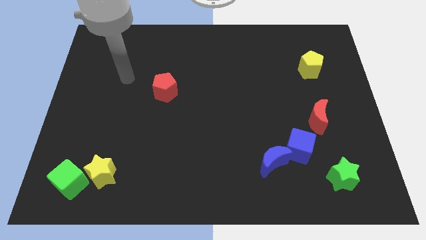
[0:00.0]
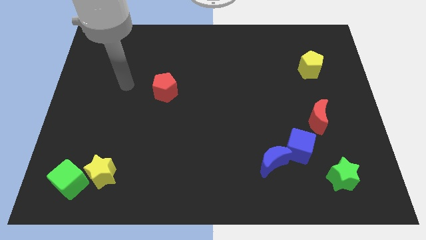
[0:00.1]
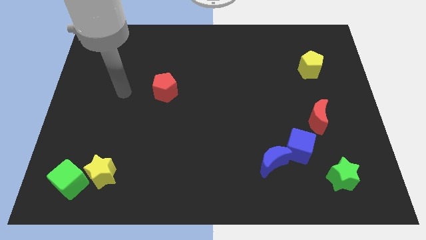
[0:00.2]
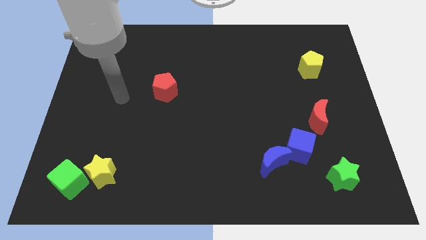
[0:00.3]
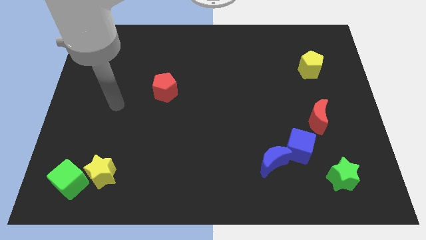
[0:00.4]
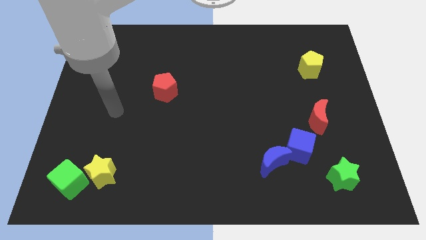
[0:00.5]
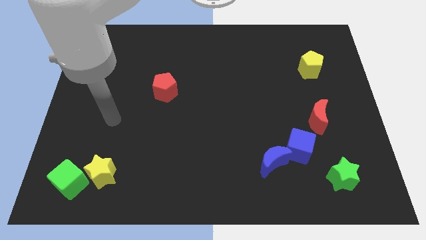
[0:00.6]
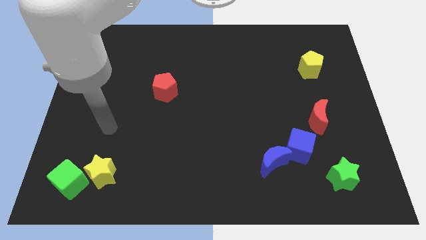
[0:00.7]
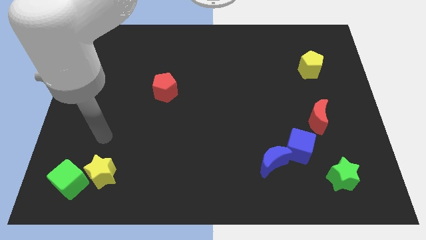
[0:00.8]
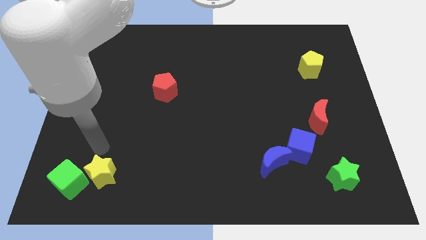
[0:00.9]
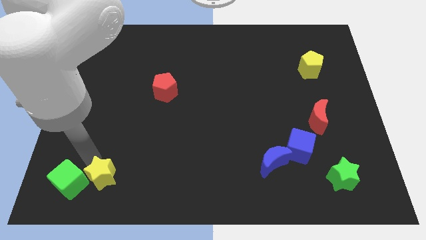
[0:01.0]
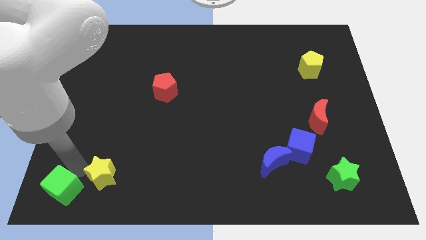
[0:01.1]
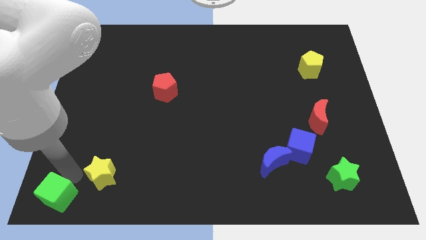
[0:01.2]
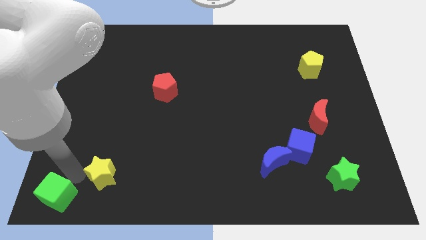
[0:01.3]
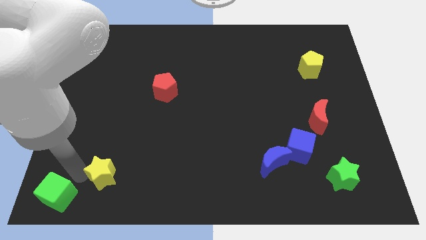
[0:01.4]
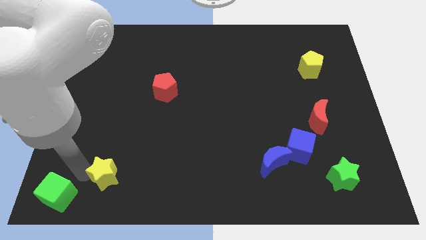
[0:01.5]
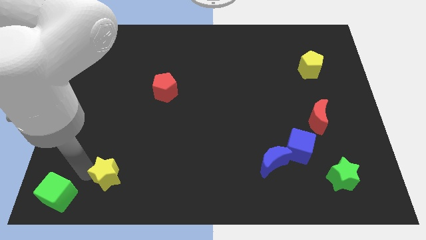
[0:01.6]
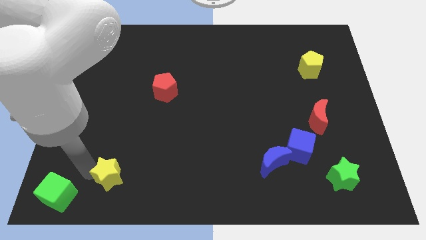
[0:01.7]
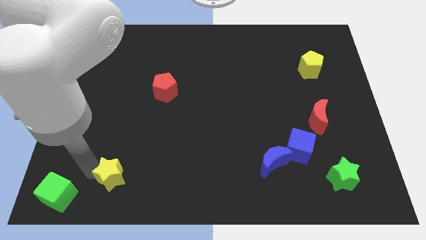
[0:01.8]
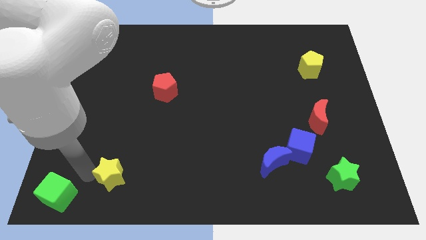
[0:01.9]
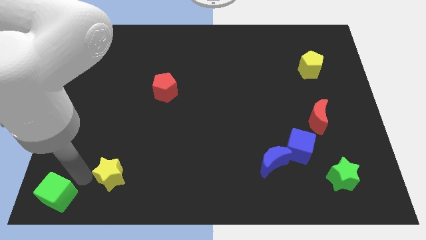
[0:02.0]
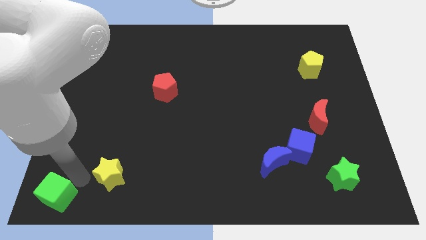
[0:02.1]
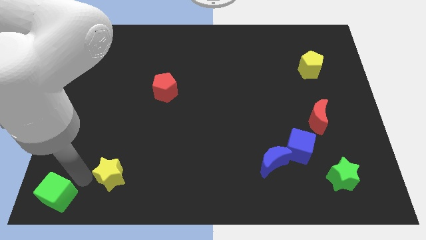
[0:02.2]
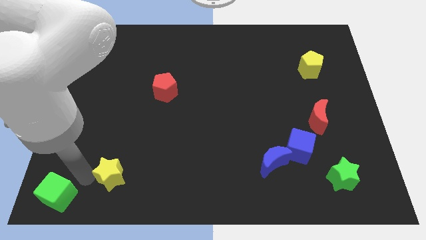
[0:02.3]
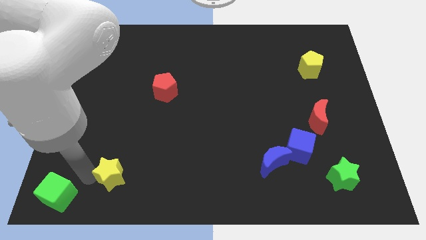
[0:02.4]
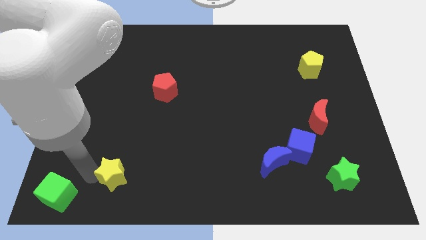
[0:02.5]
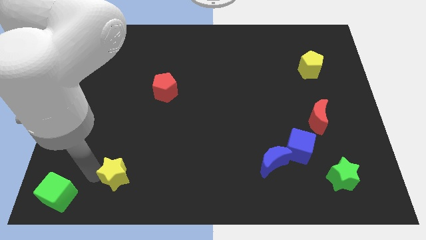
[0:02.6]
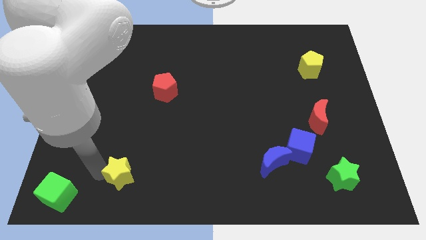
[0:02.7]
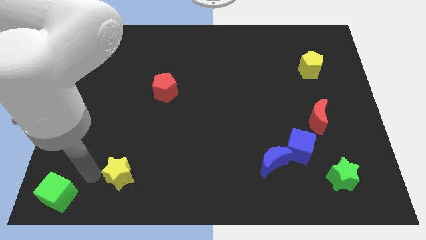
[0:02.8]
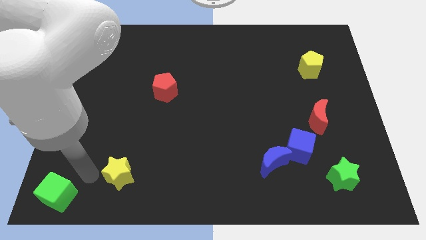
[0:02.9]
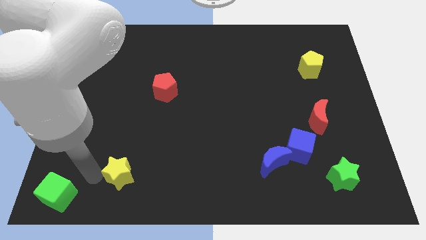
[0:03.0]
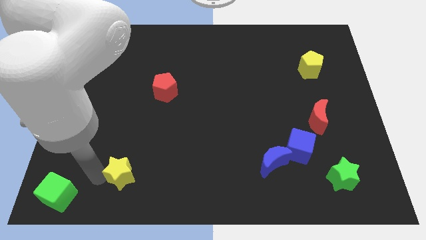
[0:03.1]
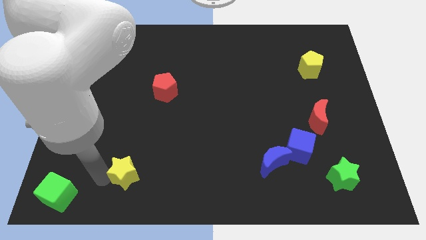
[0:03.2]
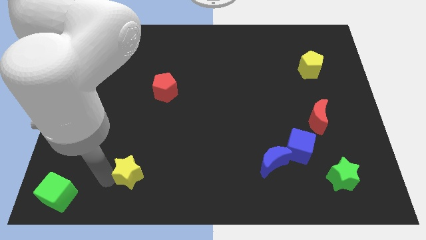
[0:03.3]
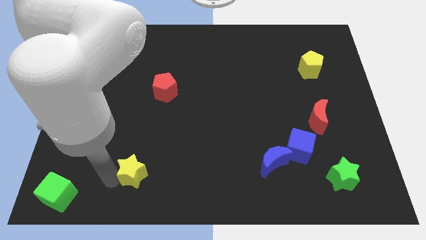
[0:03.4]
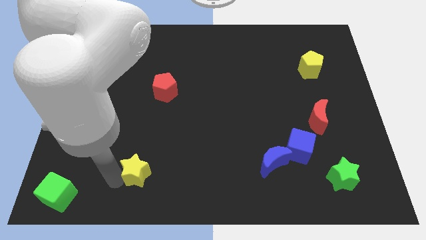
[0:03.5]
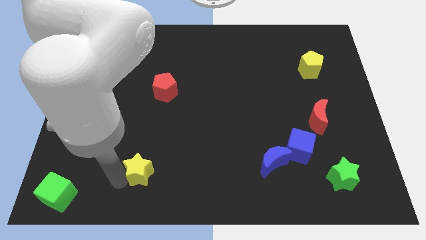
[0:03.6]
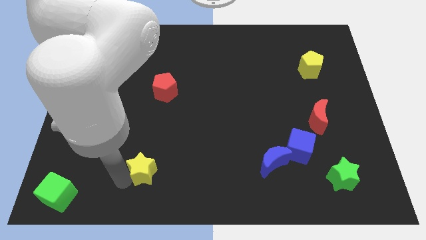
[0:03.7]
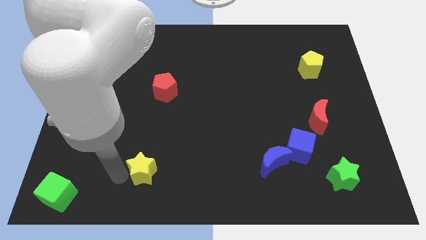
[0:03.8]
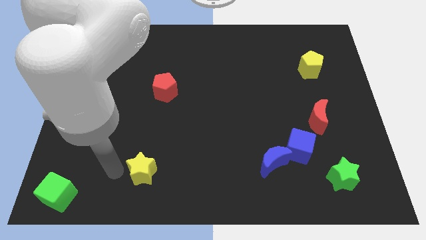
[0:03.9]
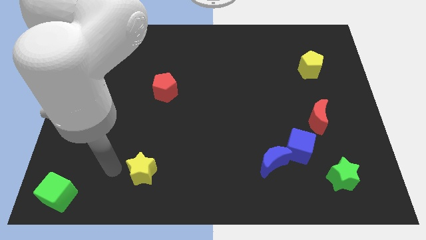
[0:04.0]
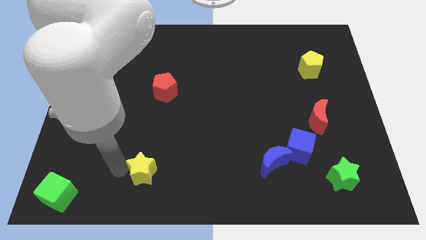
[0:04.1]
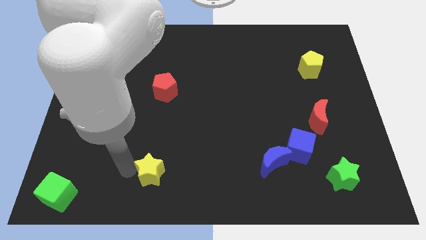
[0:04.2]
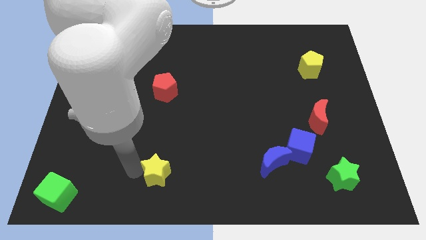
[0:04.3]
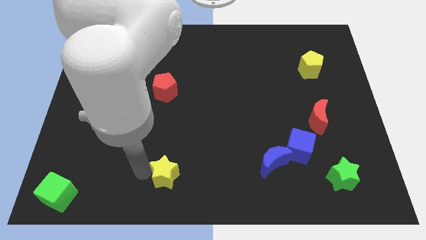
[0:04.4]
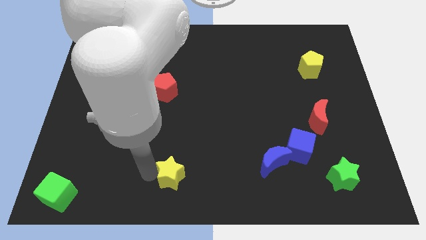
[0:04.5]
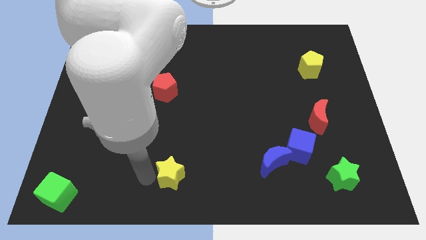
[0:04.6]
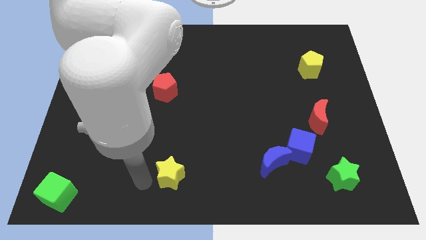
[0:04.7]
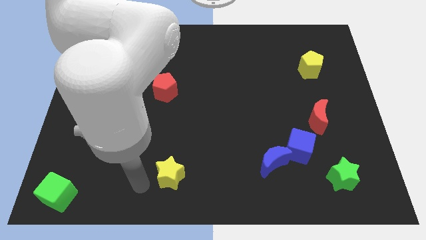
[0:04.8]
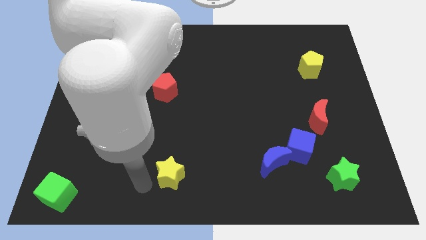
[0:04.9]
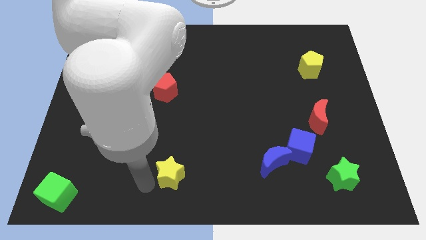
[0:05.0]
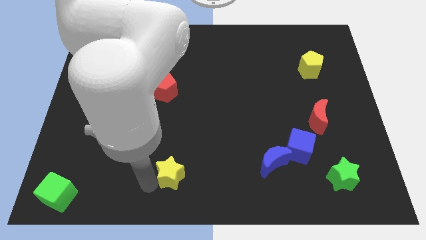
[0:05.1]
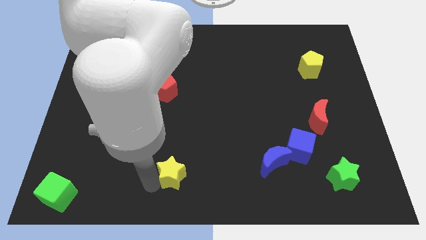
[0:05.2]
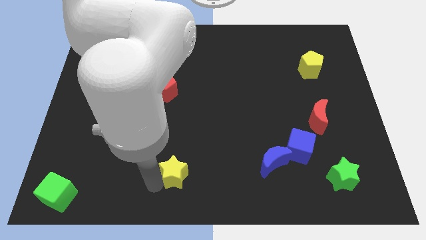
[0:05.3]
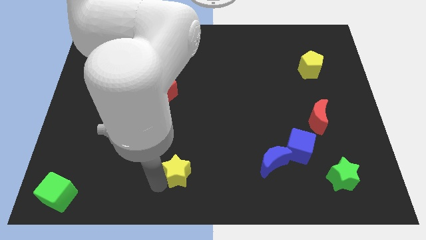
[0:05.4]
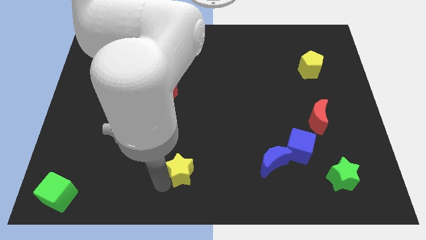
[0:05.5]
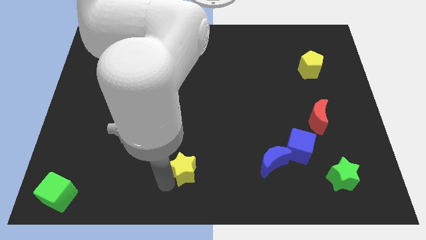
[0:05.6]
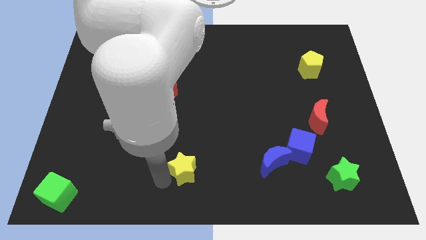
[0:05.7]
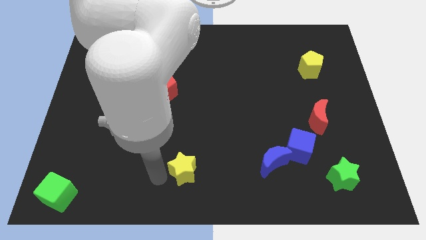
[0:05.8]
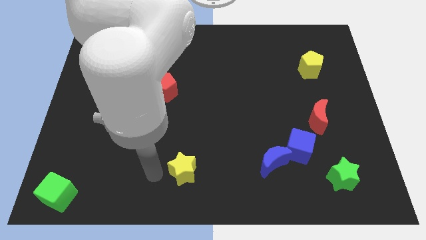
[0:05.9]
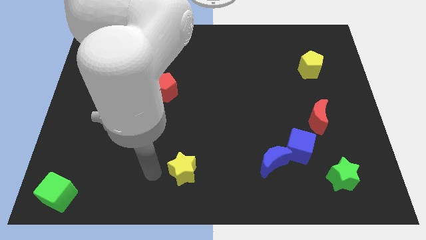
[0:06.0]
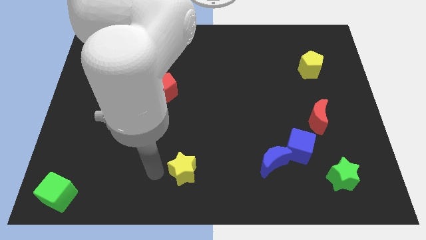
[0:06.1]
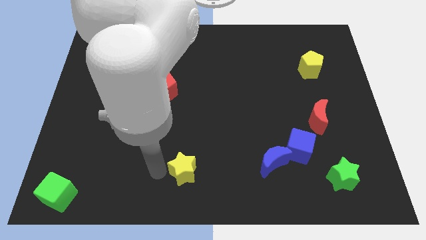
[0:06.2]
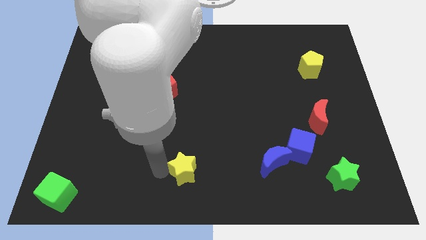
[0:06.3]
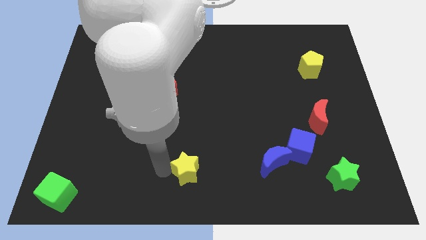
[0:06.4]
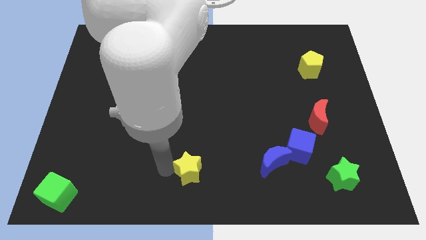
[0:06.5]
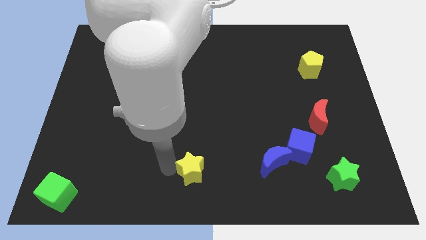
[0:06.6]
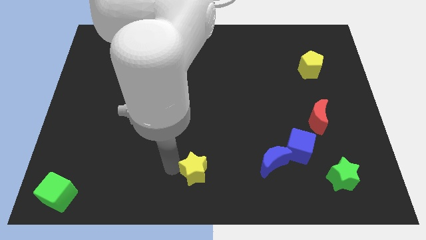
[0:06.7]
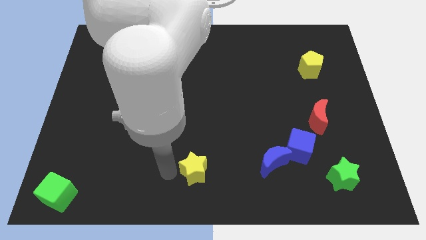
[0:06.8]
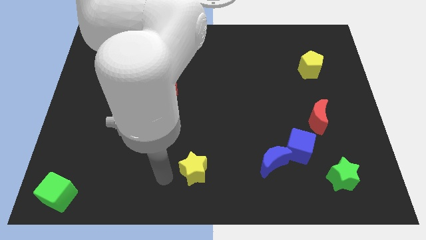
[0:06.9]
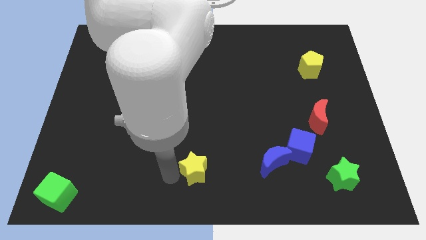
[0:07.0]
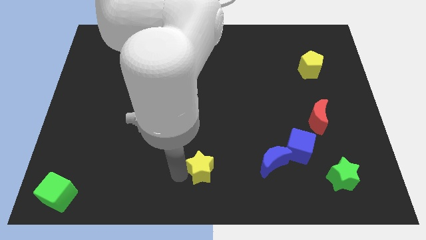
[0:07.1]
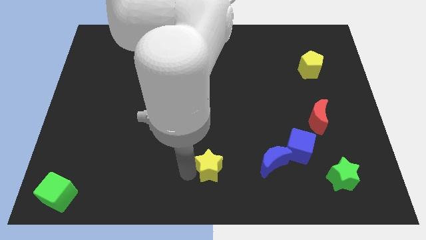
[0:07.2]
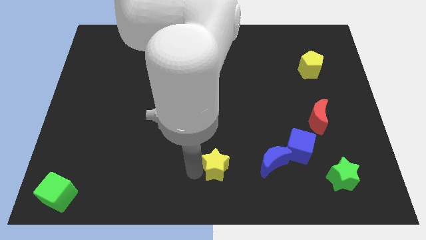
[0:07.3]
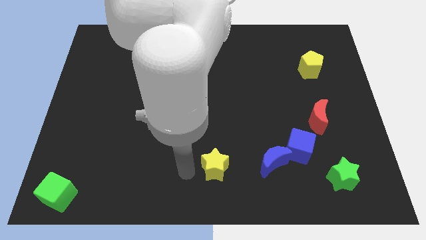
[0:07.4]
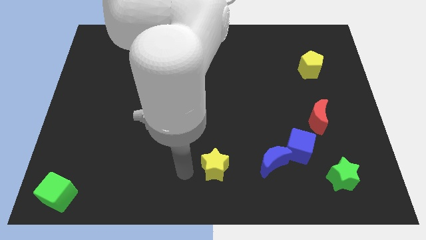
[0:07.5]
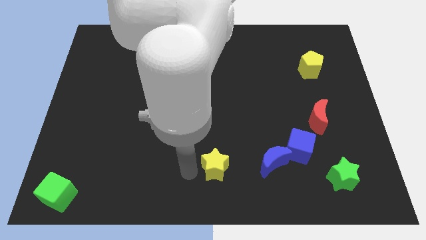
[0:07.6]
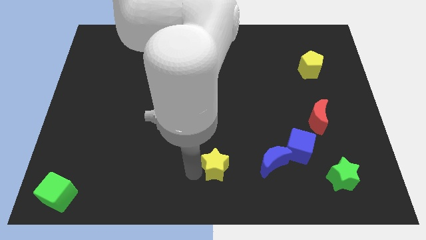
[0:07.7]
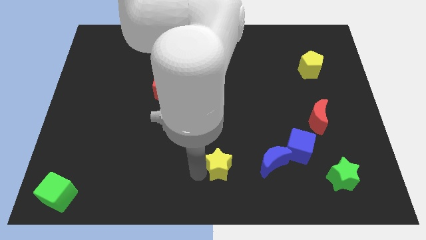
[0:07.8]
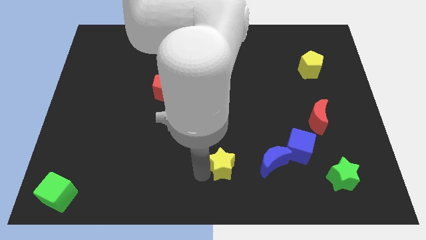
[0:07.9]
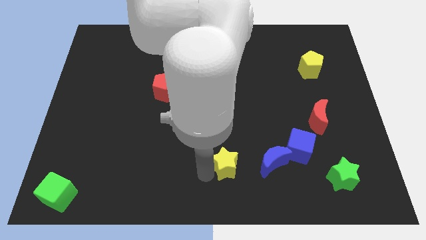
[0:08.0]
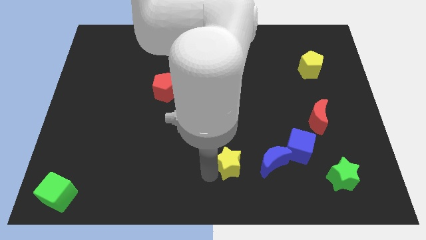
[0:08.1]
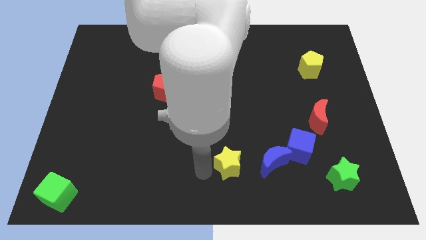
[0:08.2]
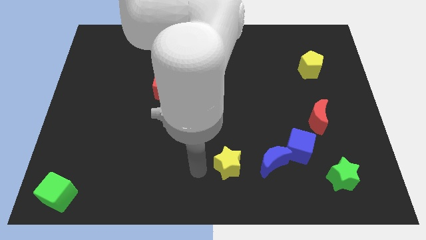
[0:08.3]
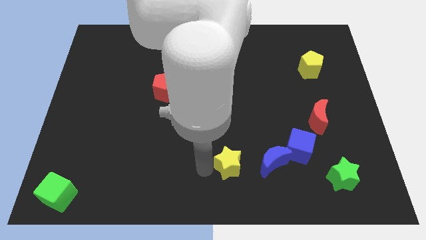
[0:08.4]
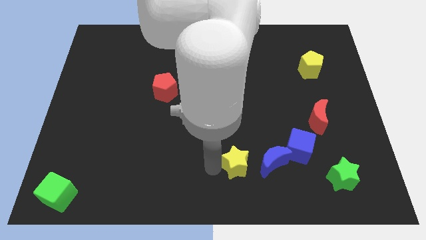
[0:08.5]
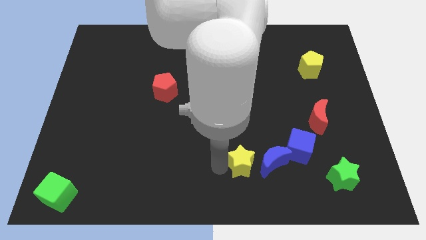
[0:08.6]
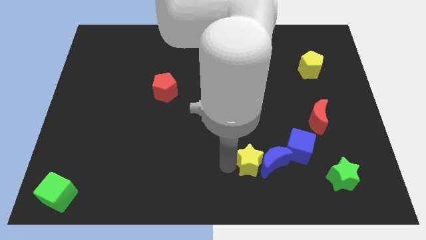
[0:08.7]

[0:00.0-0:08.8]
move the yellow star next to the blue moon
